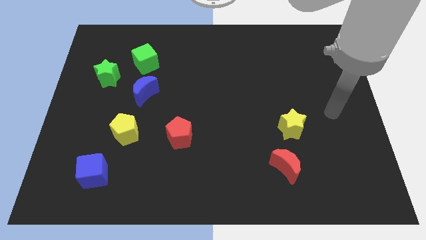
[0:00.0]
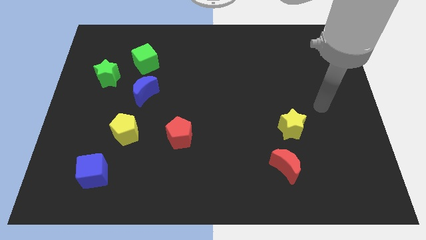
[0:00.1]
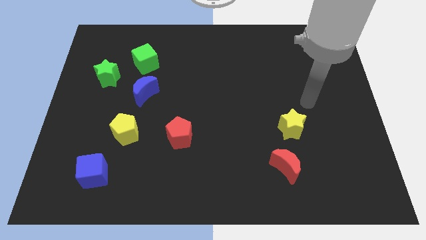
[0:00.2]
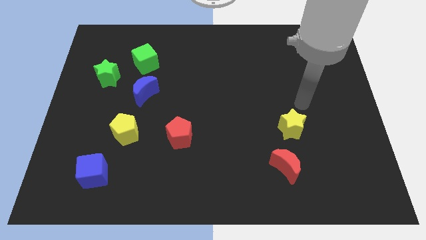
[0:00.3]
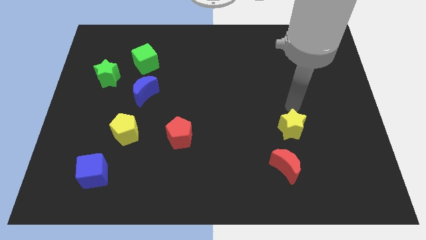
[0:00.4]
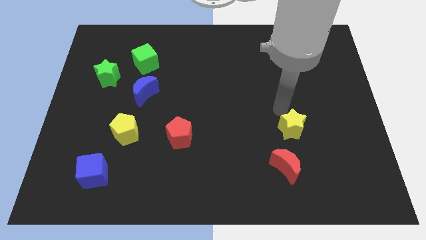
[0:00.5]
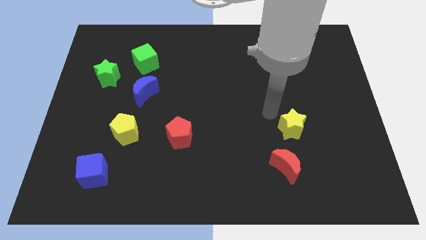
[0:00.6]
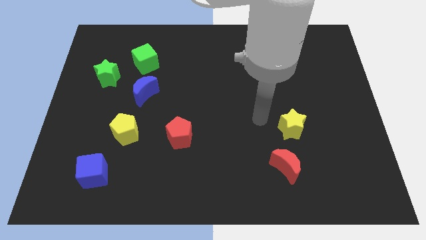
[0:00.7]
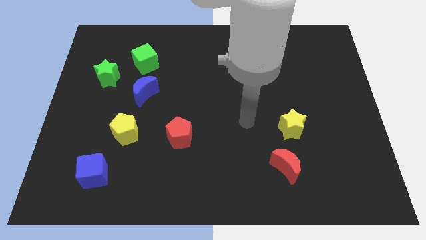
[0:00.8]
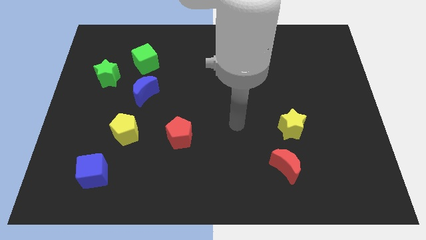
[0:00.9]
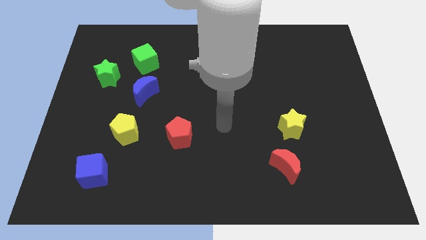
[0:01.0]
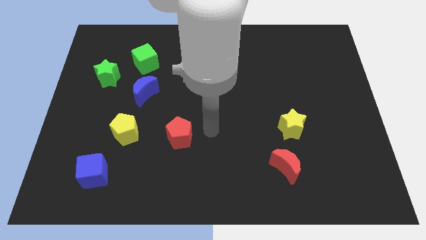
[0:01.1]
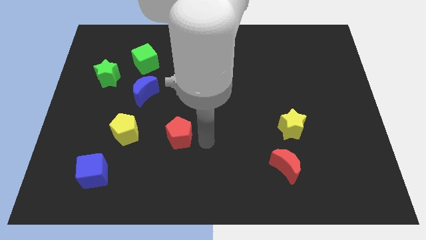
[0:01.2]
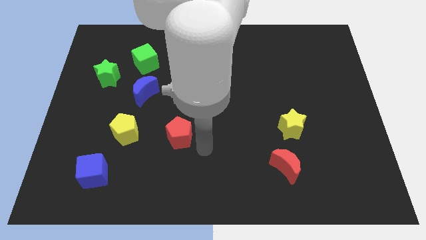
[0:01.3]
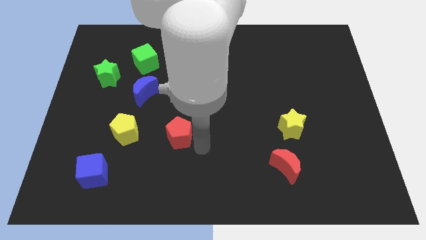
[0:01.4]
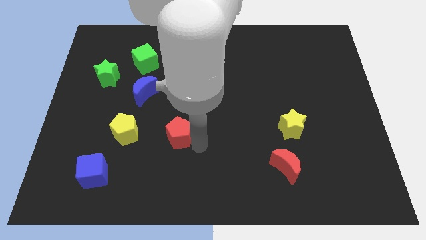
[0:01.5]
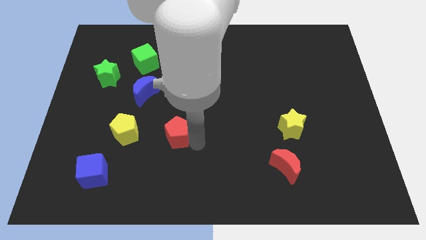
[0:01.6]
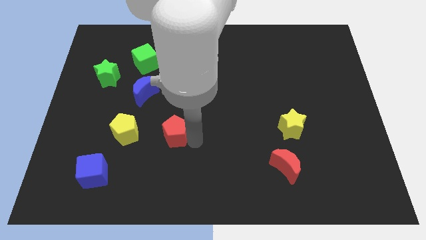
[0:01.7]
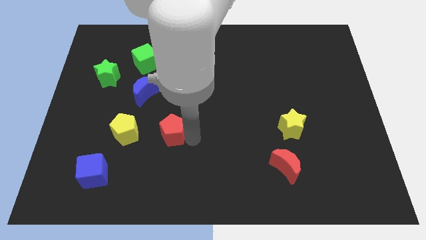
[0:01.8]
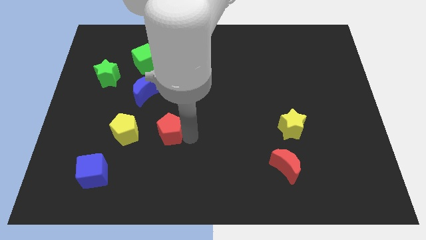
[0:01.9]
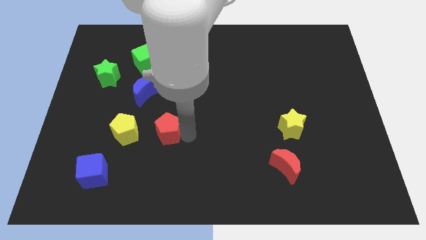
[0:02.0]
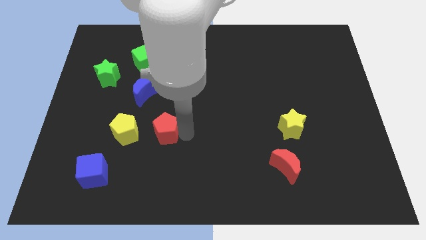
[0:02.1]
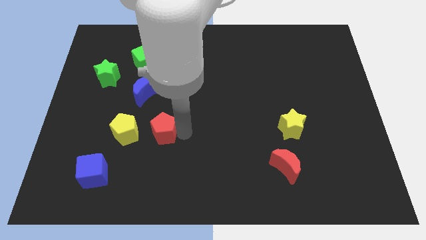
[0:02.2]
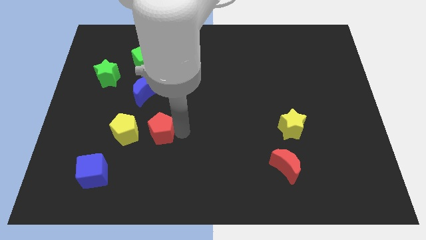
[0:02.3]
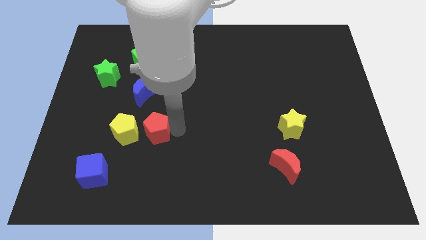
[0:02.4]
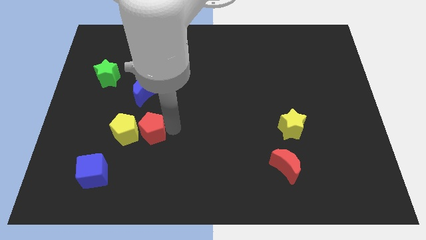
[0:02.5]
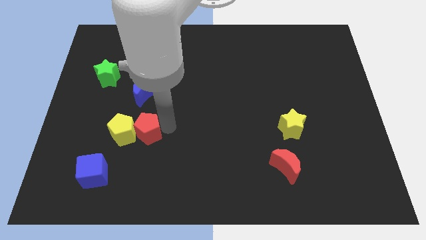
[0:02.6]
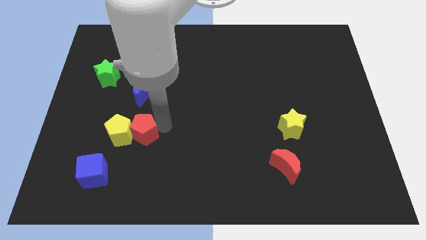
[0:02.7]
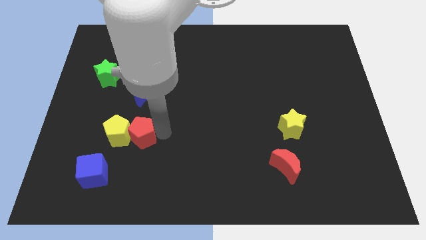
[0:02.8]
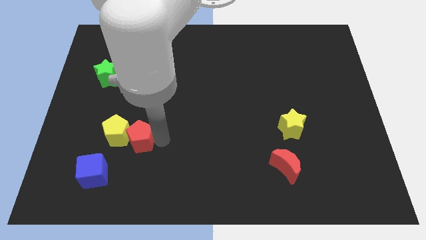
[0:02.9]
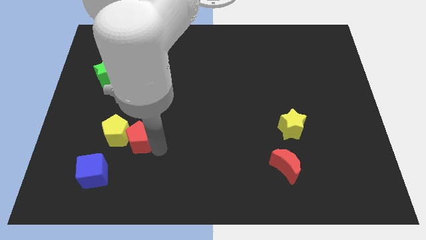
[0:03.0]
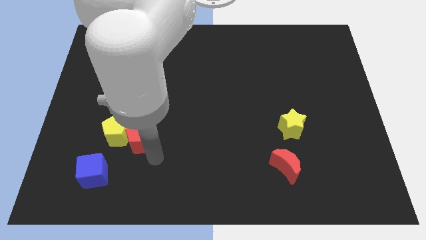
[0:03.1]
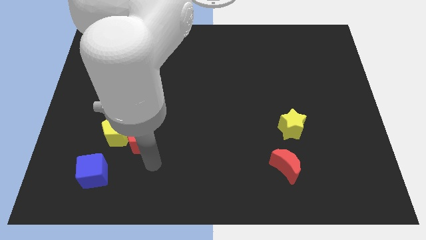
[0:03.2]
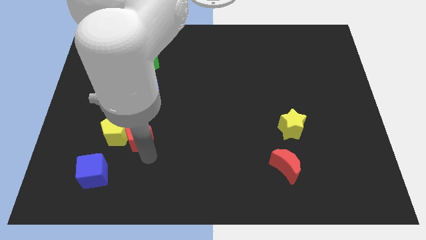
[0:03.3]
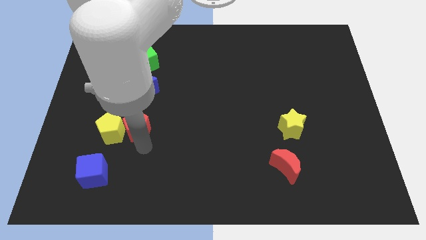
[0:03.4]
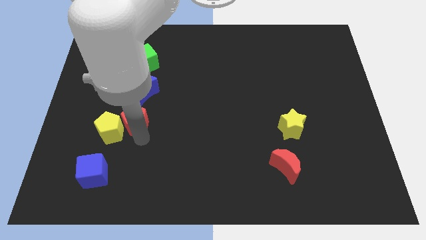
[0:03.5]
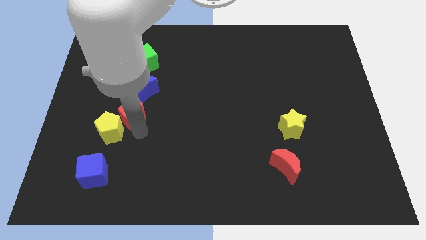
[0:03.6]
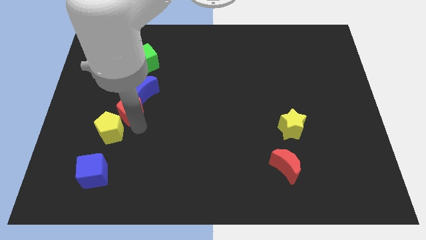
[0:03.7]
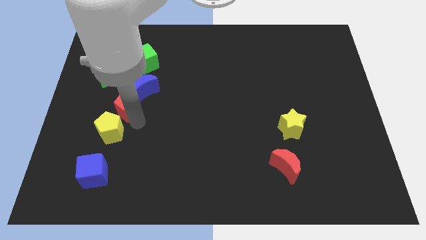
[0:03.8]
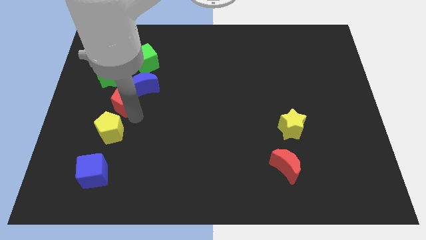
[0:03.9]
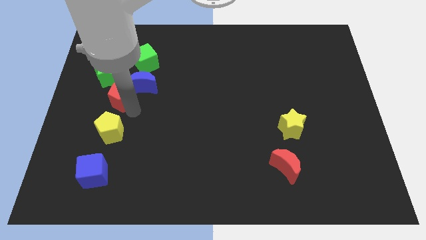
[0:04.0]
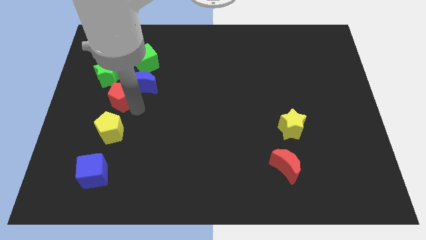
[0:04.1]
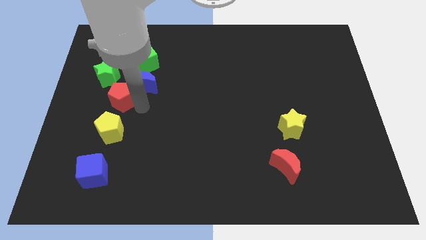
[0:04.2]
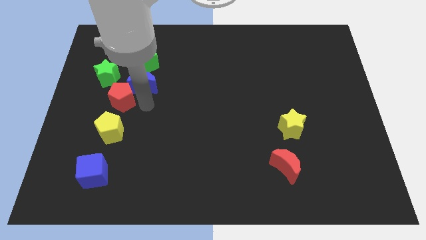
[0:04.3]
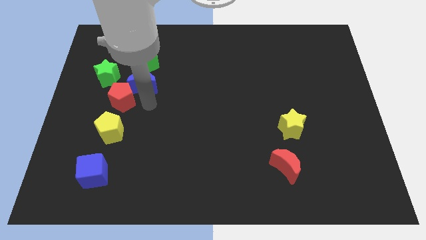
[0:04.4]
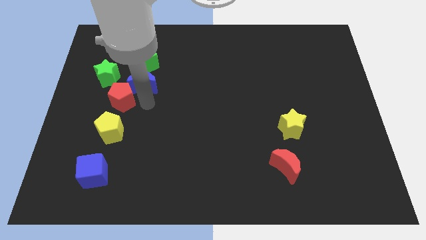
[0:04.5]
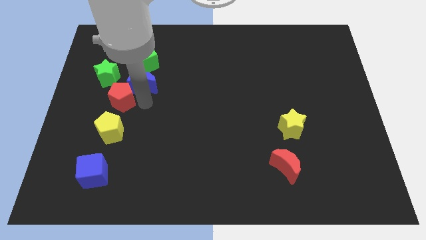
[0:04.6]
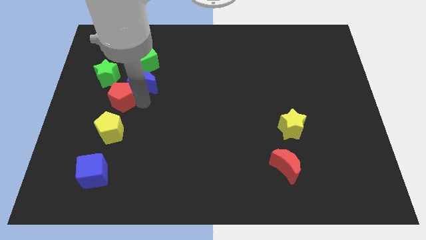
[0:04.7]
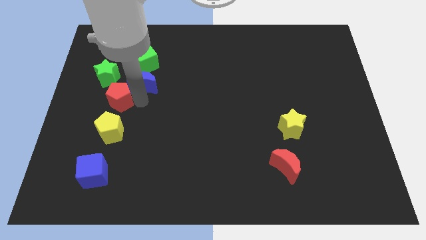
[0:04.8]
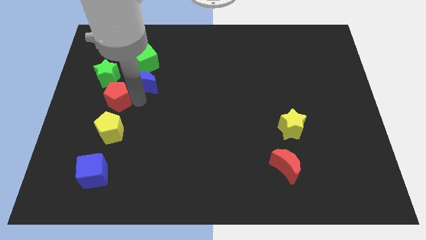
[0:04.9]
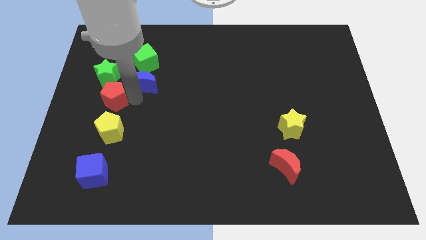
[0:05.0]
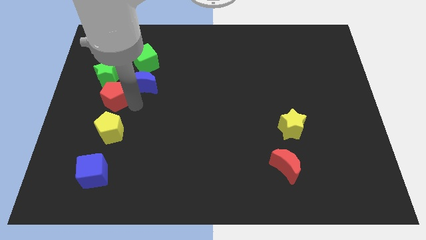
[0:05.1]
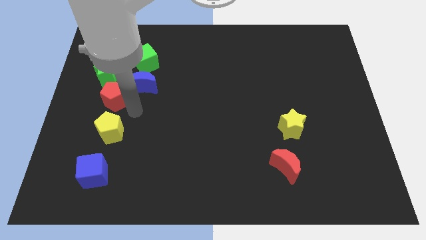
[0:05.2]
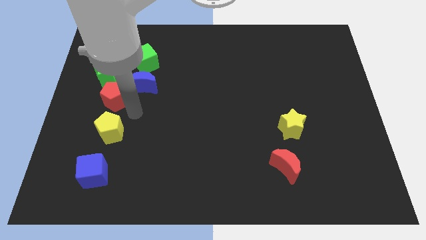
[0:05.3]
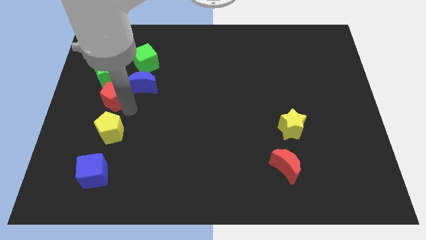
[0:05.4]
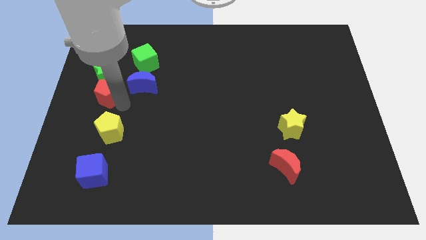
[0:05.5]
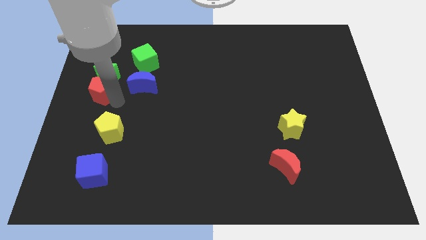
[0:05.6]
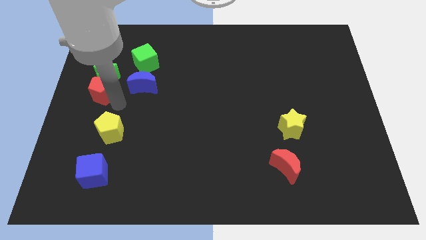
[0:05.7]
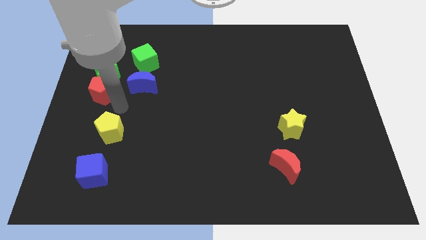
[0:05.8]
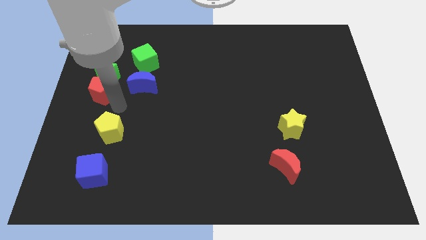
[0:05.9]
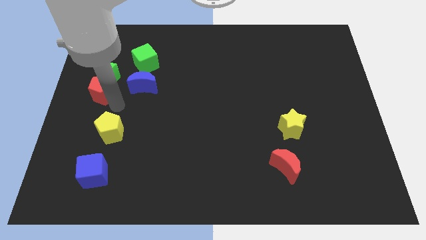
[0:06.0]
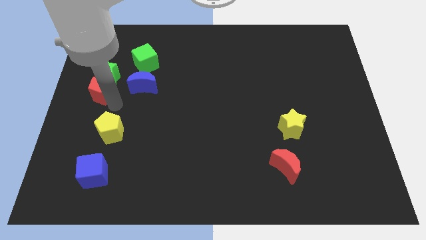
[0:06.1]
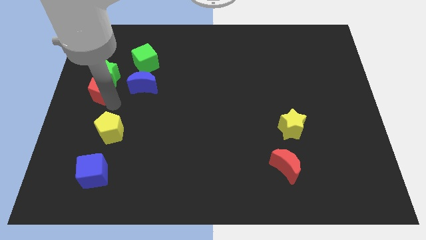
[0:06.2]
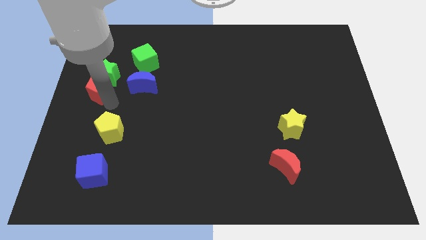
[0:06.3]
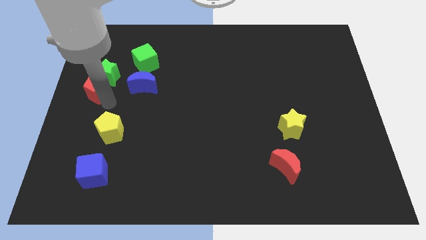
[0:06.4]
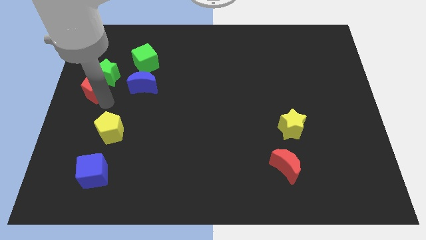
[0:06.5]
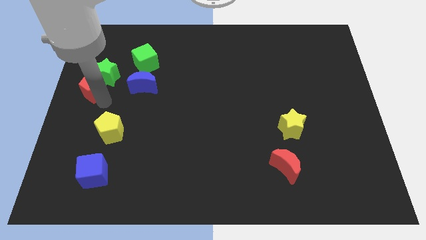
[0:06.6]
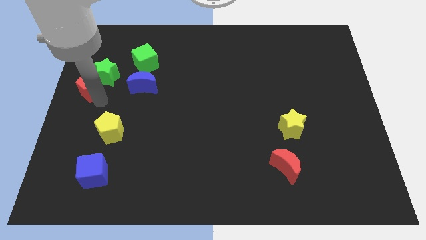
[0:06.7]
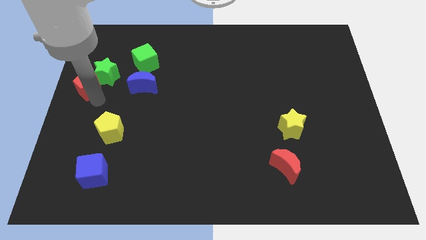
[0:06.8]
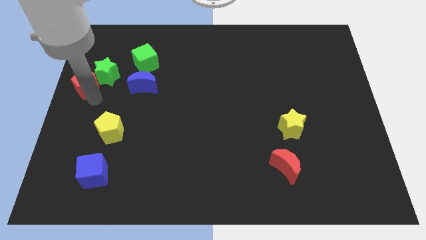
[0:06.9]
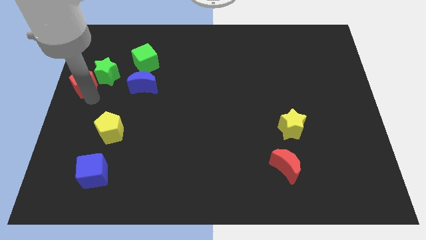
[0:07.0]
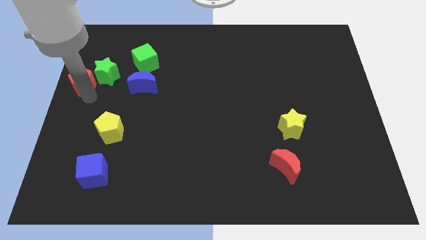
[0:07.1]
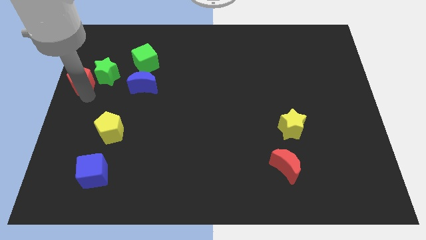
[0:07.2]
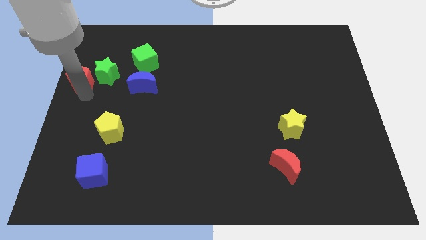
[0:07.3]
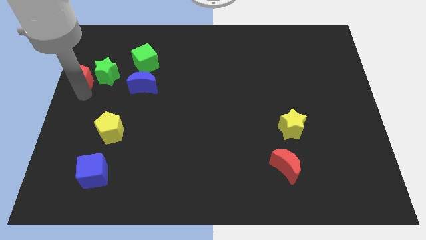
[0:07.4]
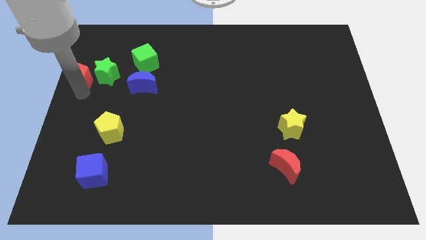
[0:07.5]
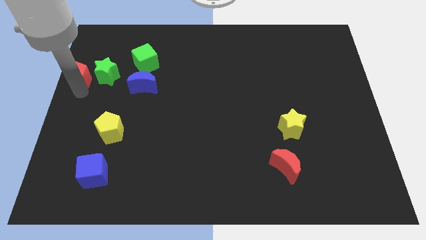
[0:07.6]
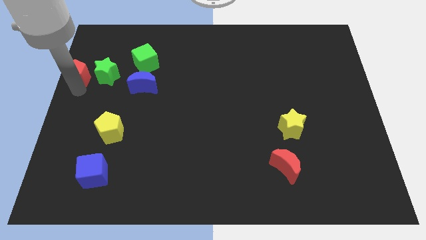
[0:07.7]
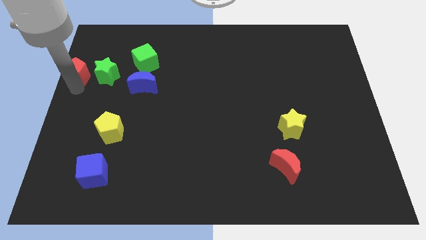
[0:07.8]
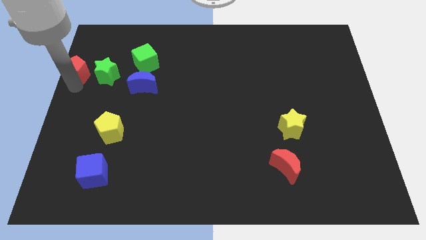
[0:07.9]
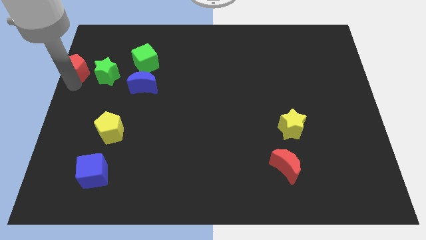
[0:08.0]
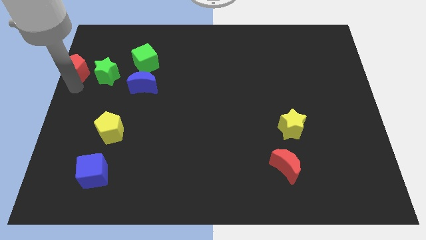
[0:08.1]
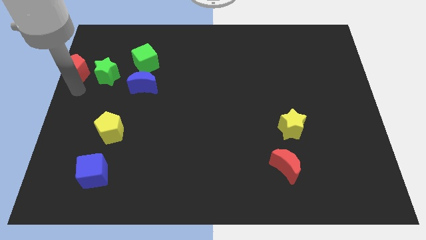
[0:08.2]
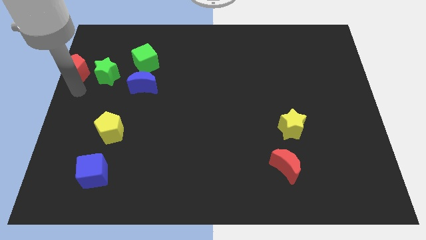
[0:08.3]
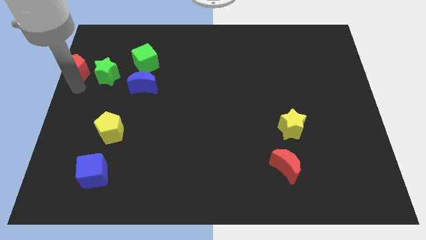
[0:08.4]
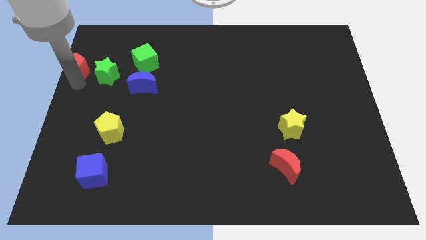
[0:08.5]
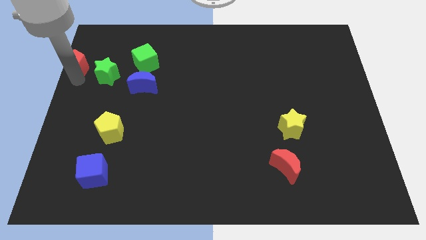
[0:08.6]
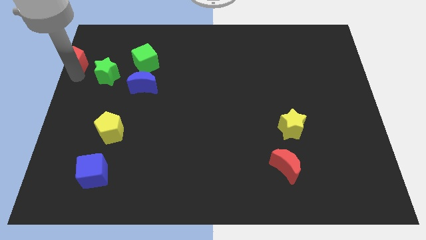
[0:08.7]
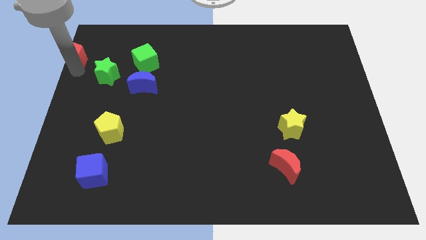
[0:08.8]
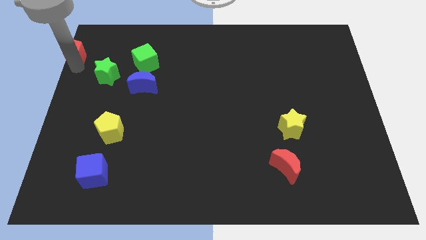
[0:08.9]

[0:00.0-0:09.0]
put the red pentagon to the top left
